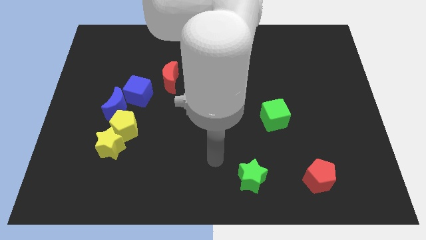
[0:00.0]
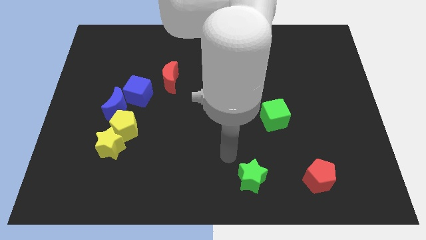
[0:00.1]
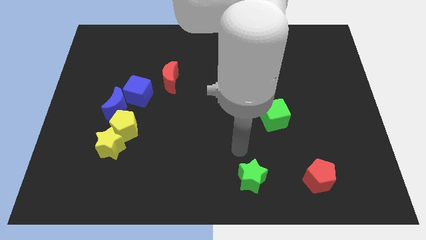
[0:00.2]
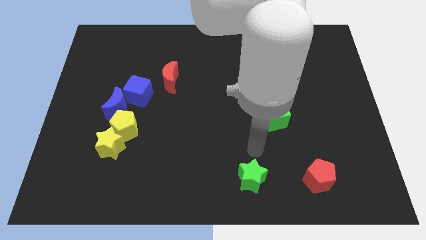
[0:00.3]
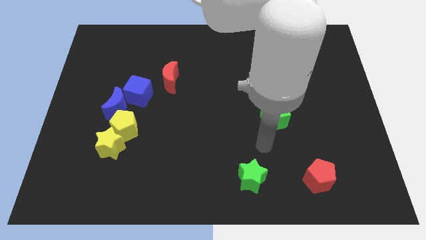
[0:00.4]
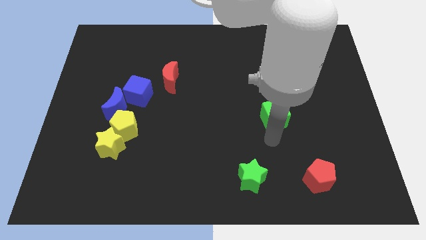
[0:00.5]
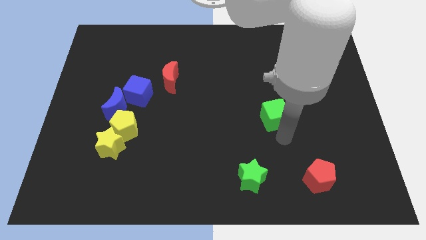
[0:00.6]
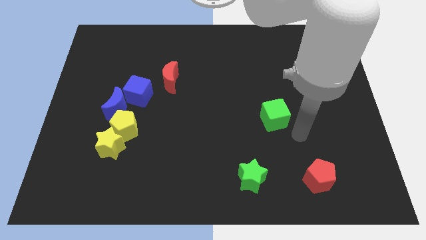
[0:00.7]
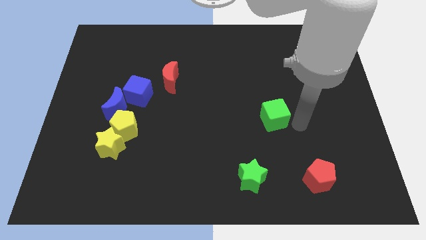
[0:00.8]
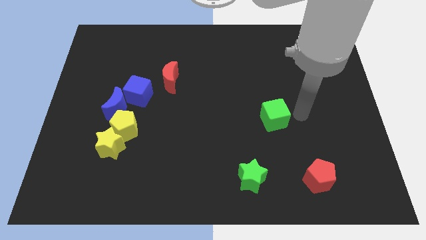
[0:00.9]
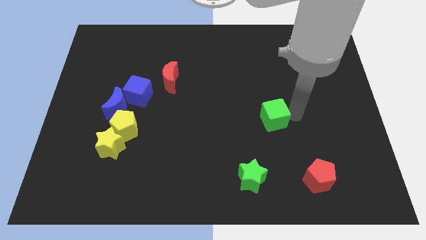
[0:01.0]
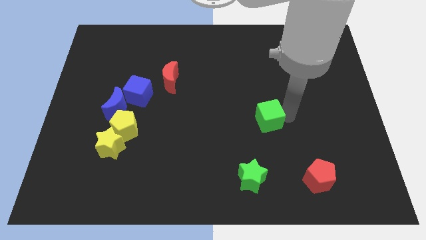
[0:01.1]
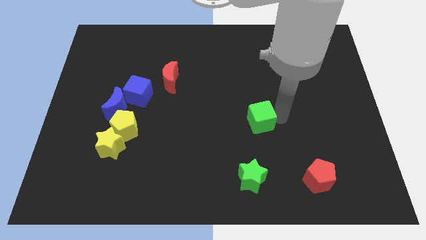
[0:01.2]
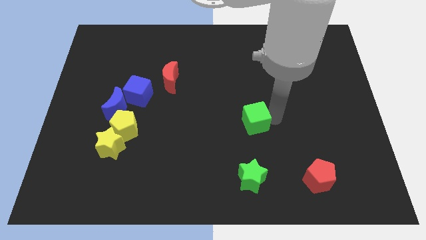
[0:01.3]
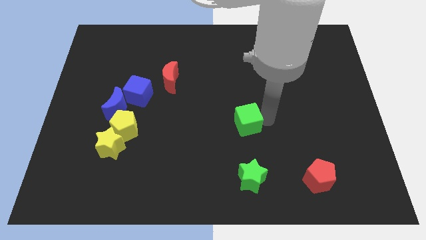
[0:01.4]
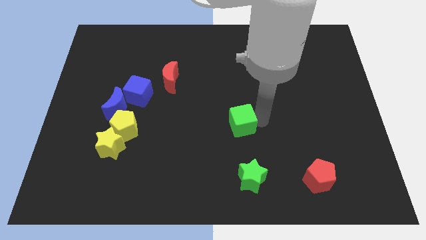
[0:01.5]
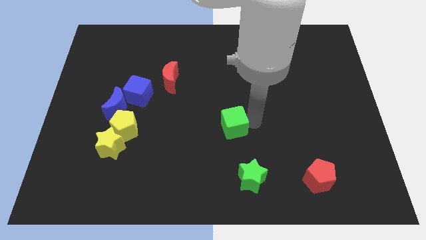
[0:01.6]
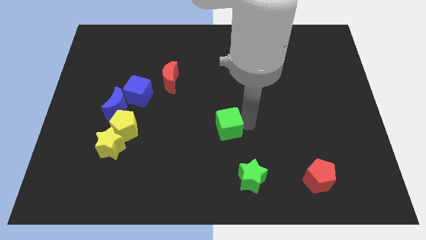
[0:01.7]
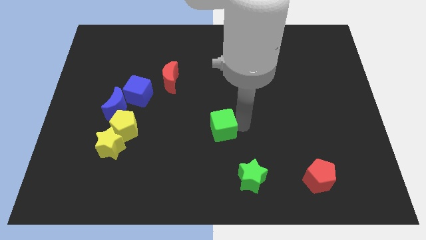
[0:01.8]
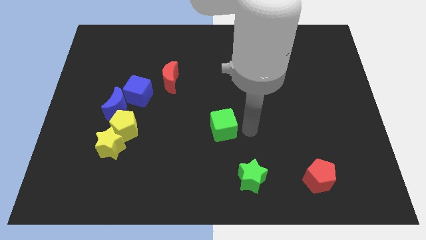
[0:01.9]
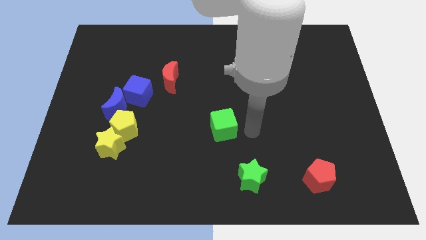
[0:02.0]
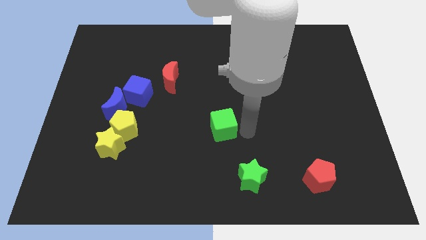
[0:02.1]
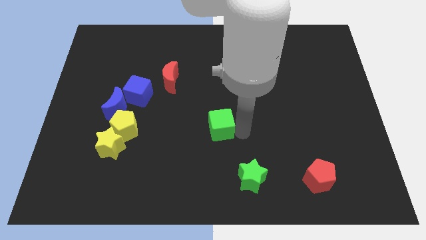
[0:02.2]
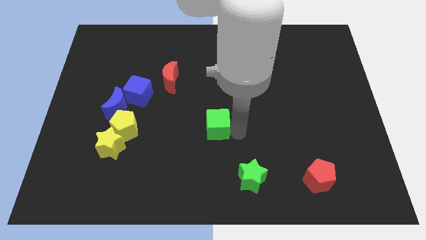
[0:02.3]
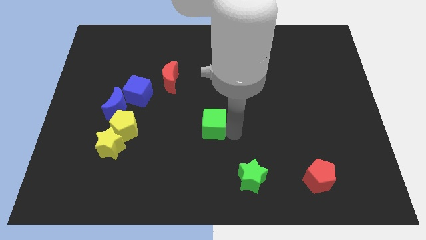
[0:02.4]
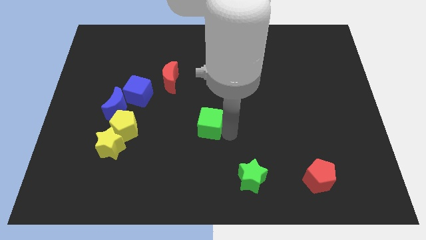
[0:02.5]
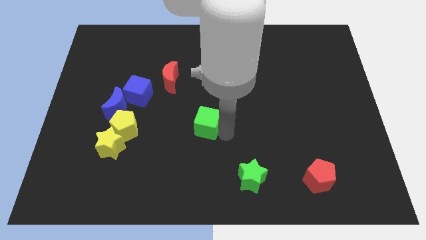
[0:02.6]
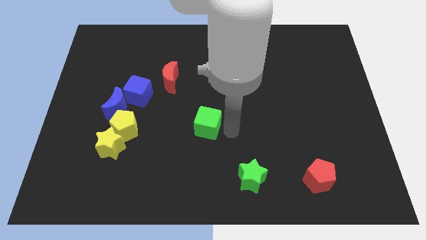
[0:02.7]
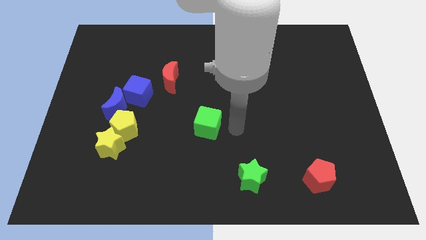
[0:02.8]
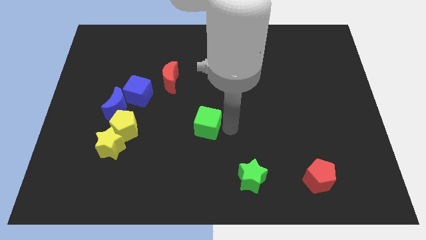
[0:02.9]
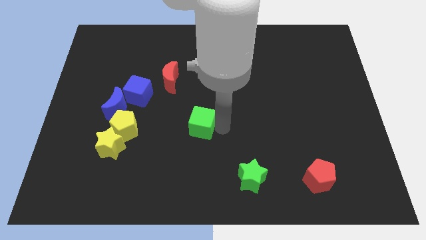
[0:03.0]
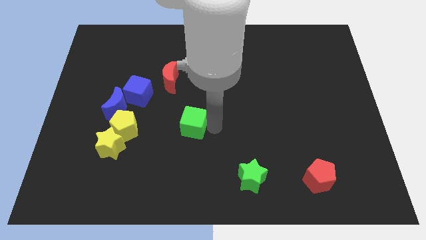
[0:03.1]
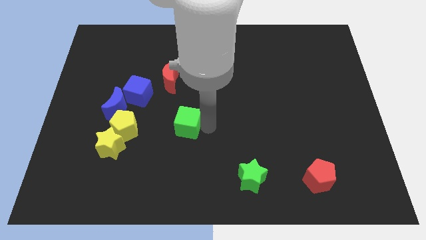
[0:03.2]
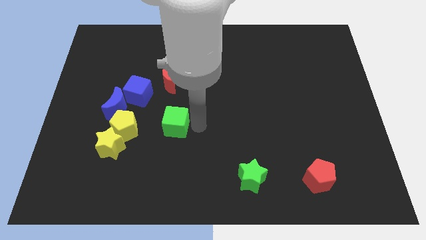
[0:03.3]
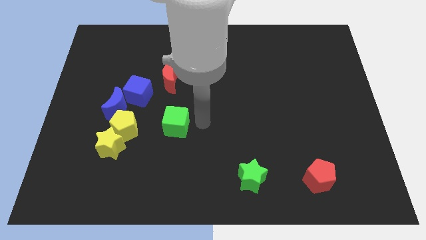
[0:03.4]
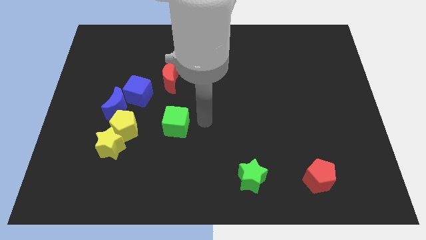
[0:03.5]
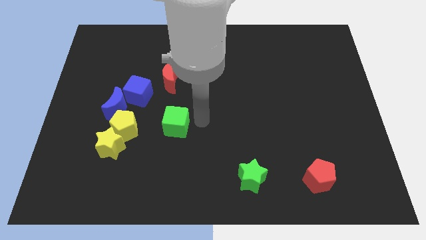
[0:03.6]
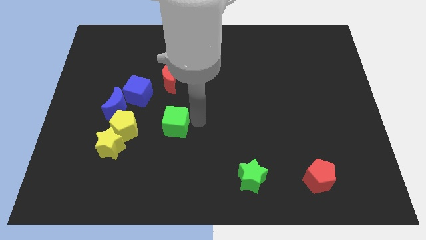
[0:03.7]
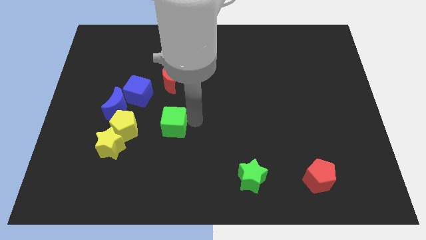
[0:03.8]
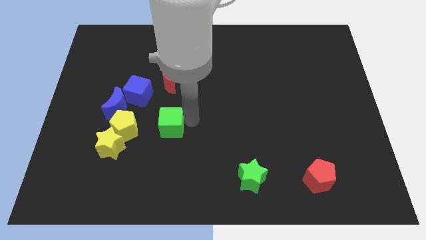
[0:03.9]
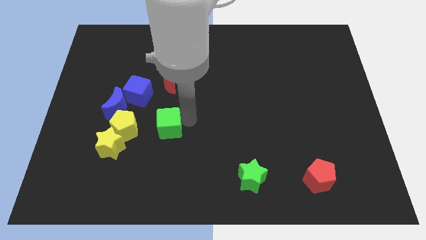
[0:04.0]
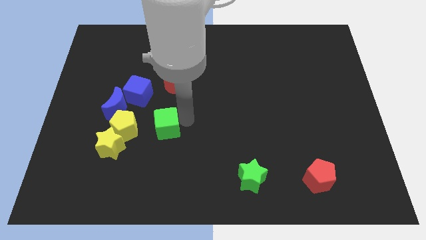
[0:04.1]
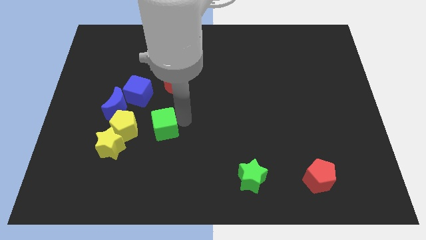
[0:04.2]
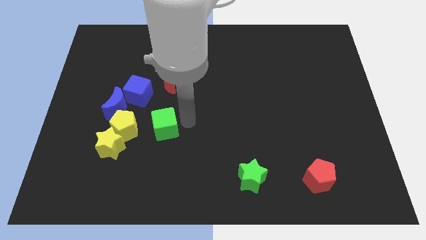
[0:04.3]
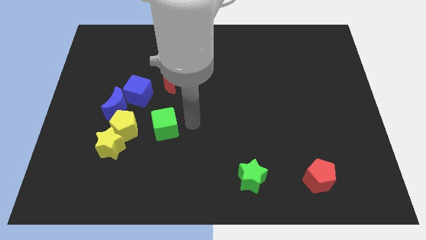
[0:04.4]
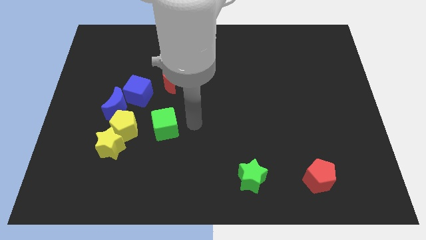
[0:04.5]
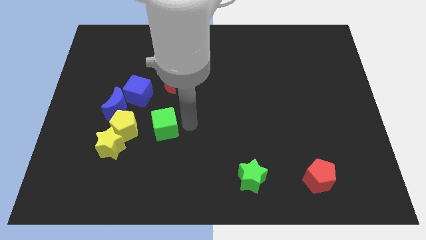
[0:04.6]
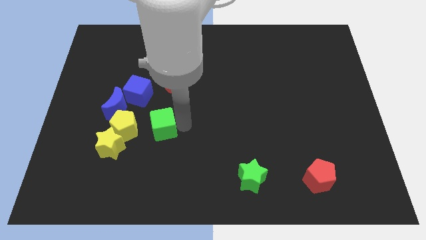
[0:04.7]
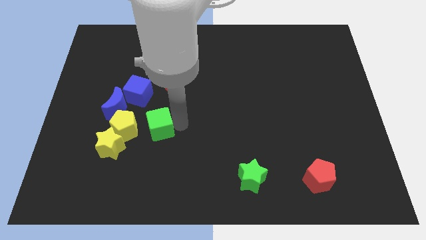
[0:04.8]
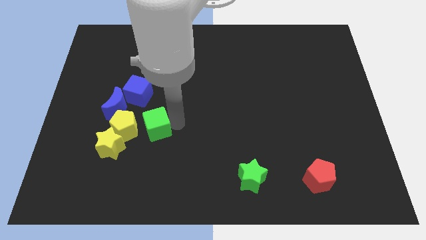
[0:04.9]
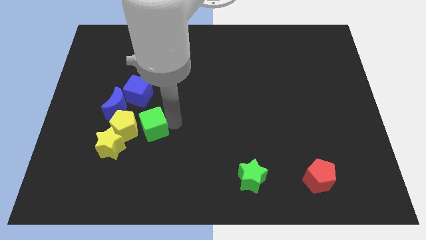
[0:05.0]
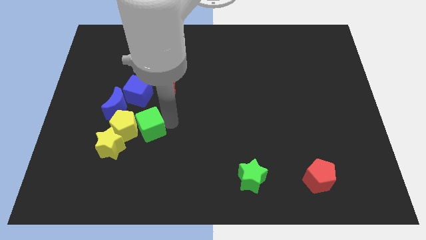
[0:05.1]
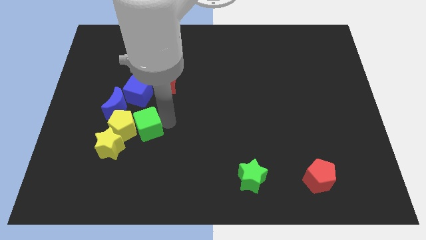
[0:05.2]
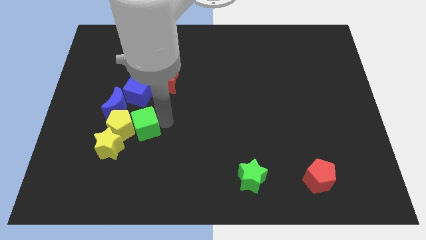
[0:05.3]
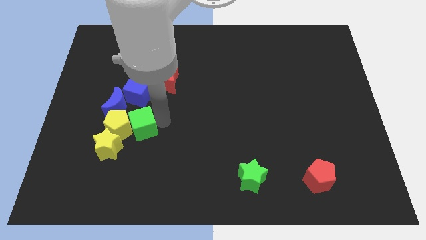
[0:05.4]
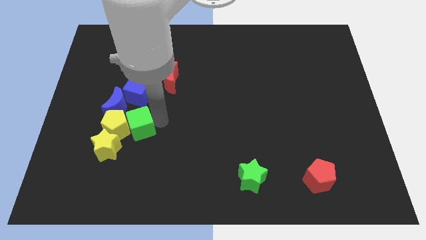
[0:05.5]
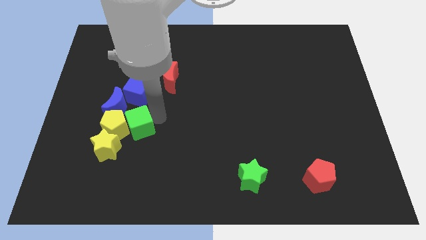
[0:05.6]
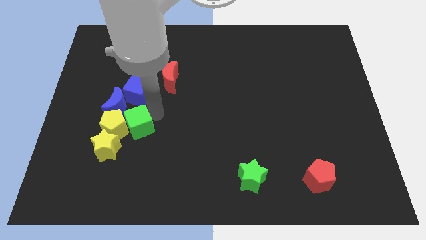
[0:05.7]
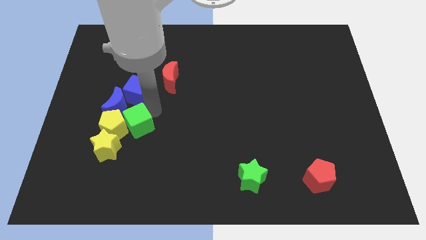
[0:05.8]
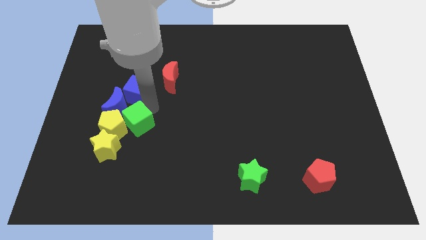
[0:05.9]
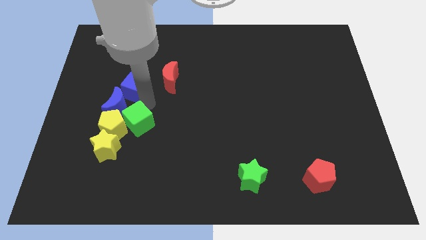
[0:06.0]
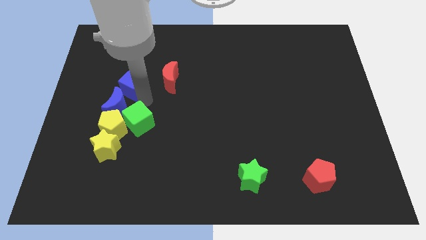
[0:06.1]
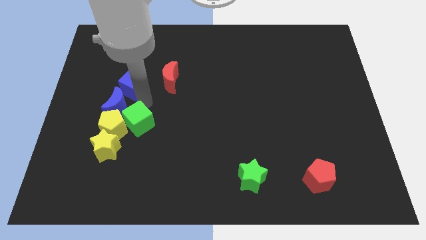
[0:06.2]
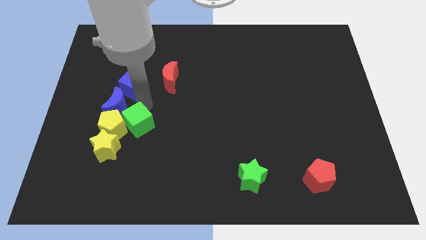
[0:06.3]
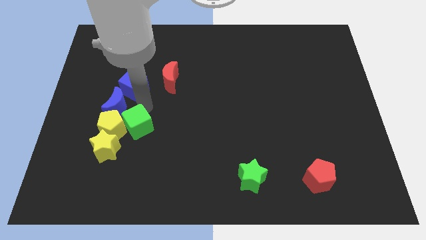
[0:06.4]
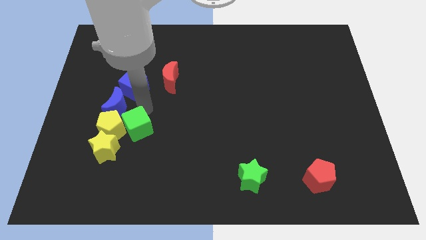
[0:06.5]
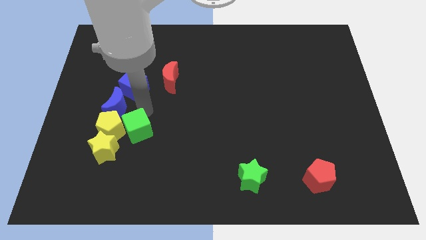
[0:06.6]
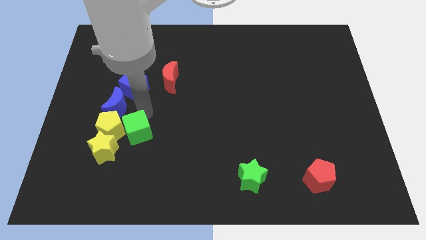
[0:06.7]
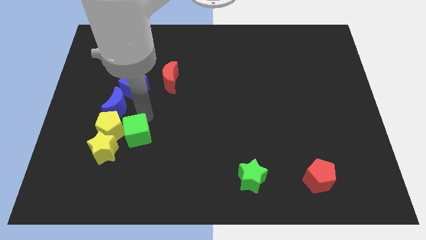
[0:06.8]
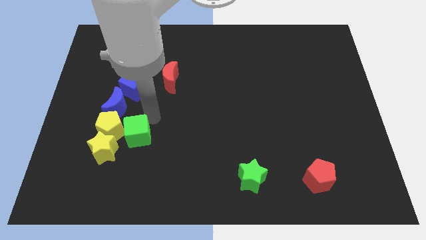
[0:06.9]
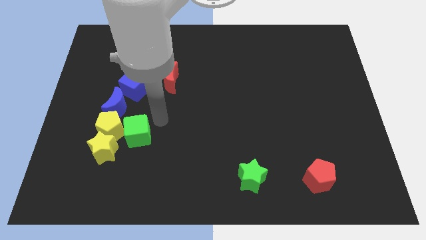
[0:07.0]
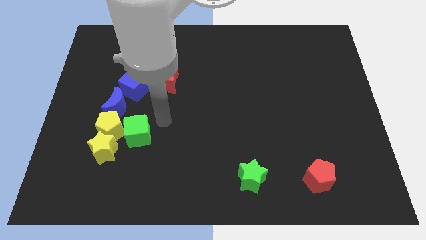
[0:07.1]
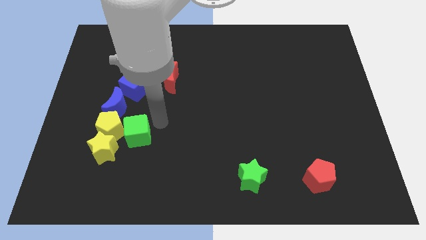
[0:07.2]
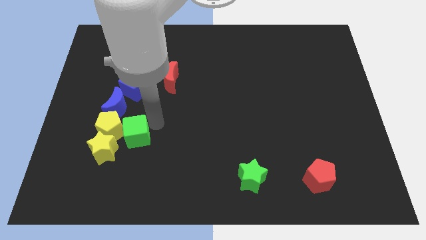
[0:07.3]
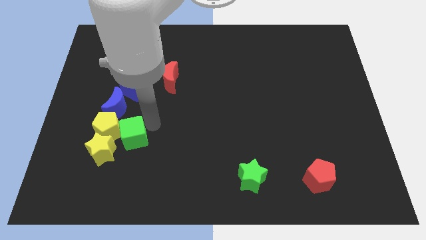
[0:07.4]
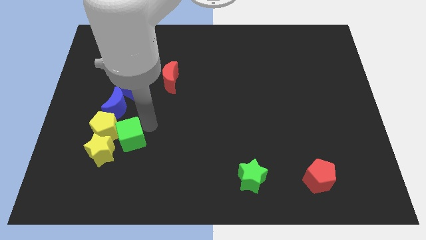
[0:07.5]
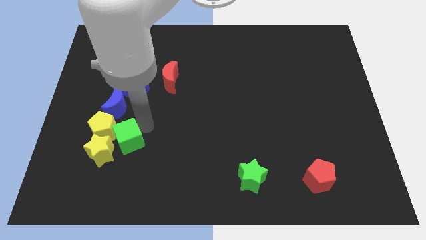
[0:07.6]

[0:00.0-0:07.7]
put the green cube to the yellow star

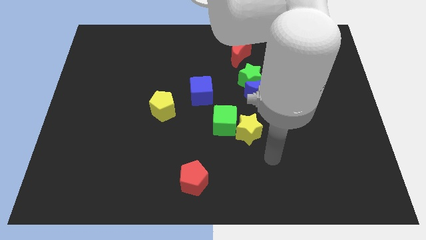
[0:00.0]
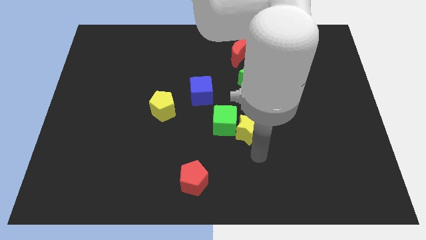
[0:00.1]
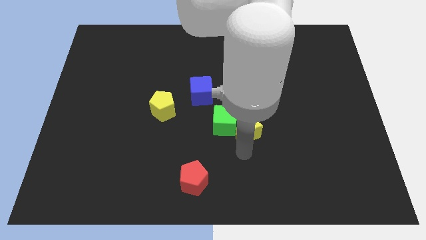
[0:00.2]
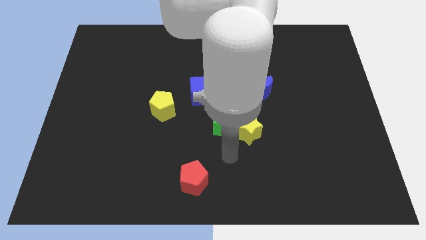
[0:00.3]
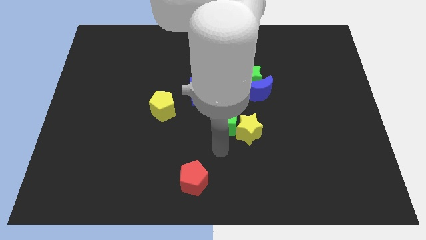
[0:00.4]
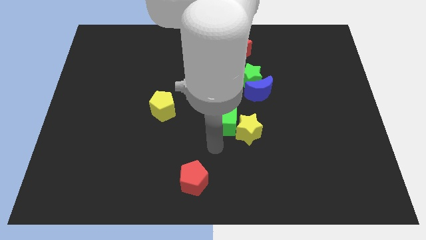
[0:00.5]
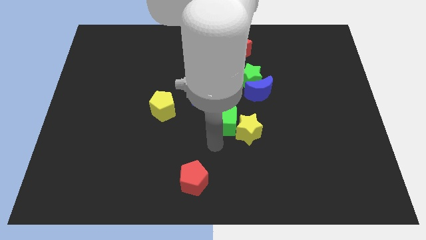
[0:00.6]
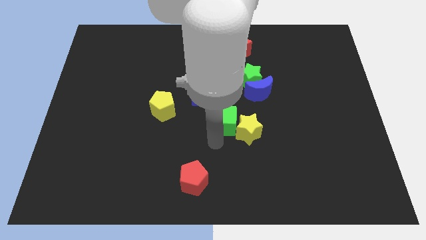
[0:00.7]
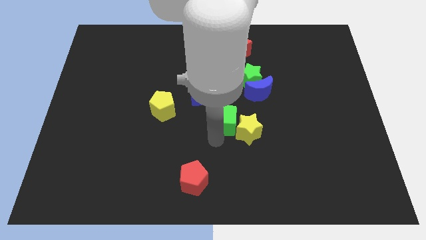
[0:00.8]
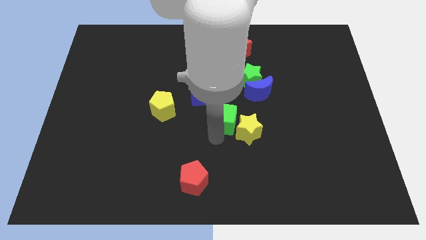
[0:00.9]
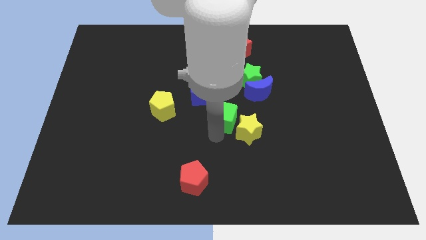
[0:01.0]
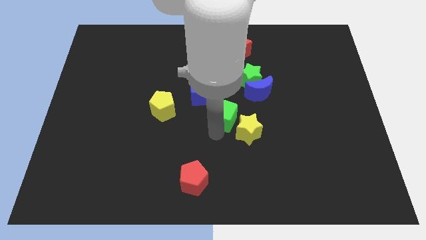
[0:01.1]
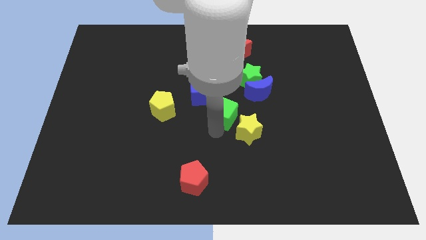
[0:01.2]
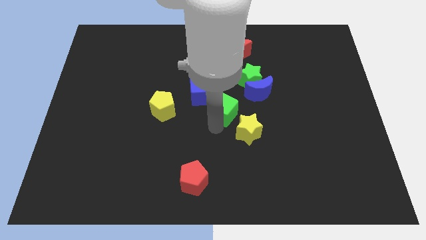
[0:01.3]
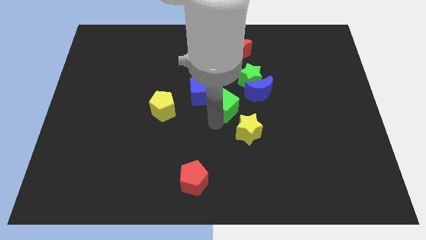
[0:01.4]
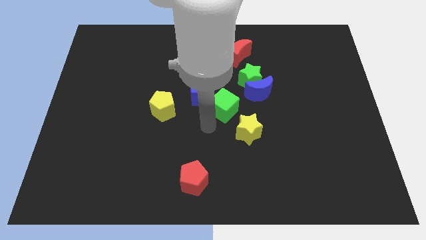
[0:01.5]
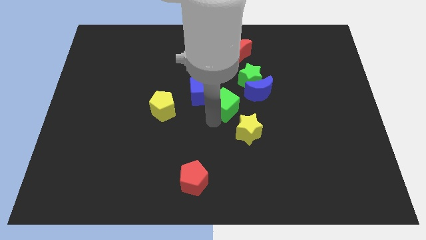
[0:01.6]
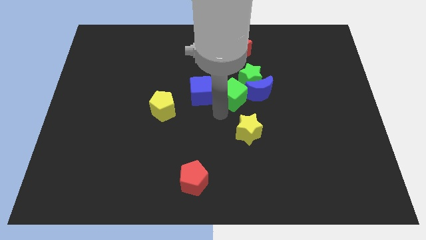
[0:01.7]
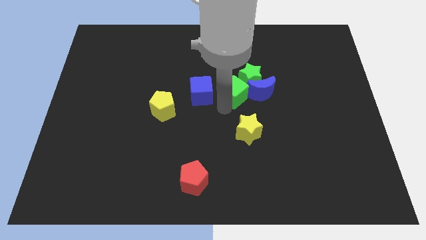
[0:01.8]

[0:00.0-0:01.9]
push the green cube to the green star
